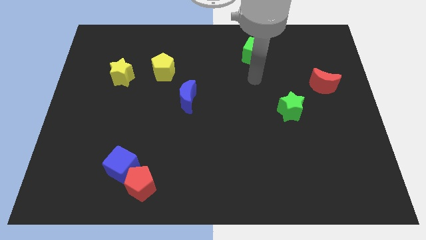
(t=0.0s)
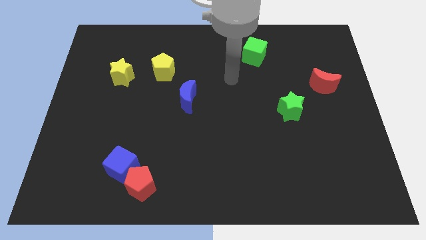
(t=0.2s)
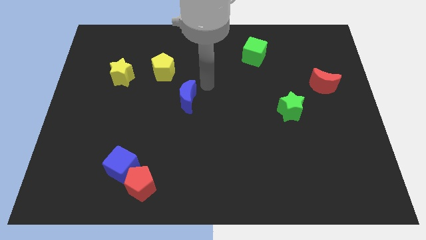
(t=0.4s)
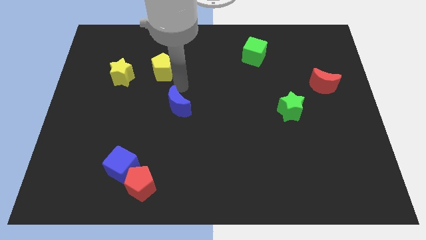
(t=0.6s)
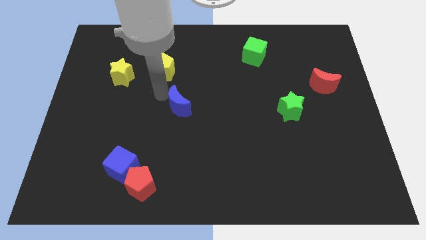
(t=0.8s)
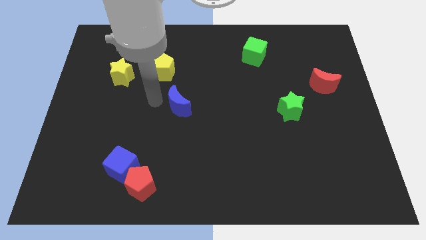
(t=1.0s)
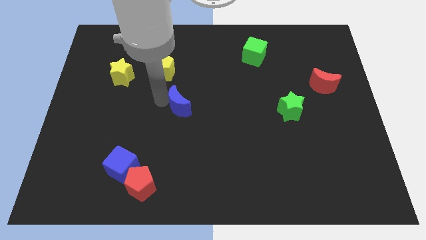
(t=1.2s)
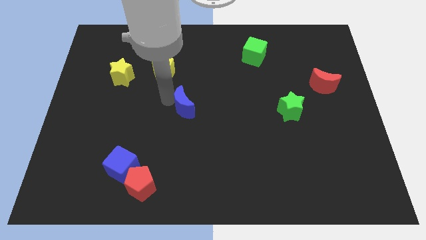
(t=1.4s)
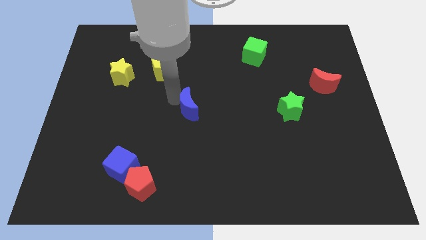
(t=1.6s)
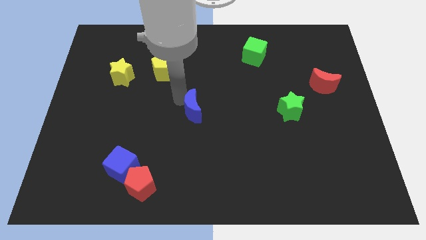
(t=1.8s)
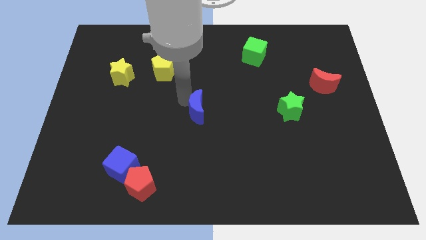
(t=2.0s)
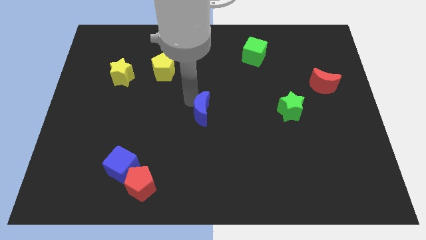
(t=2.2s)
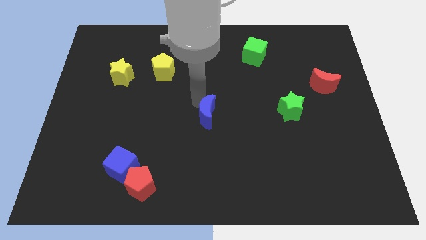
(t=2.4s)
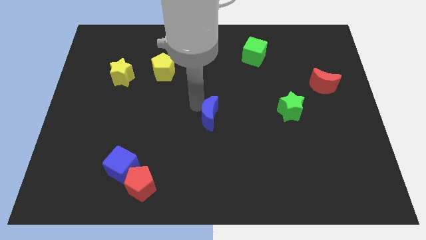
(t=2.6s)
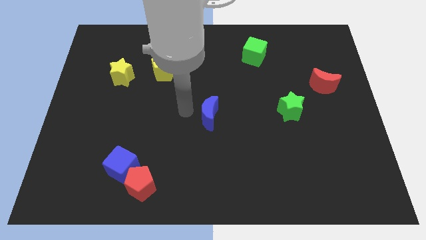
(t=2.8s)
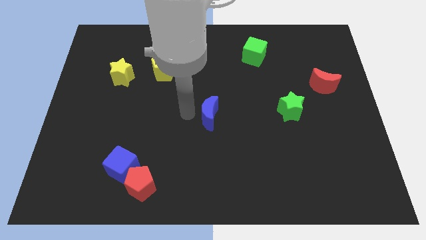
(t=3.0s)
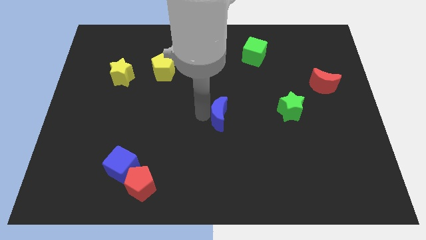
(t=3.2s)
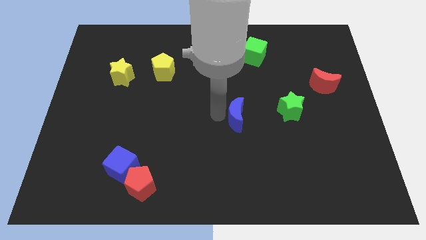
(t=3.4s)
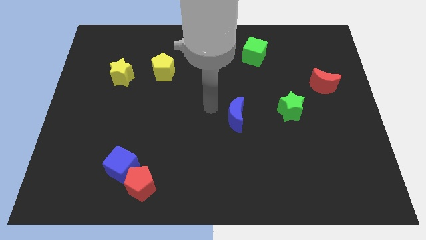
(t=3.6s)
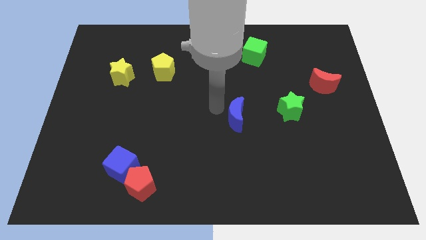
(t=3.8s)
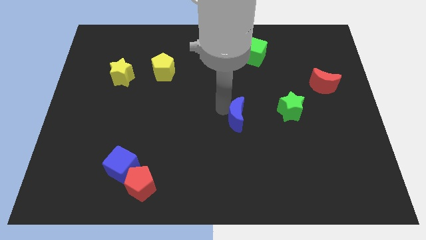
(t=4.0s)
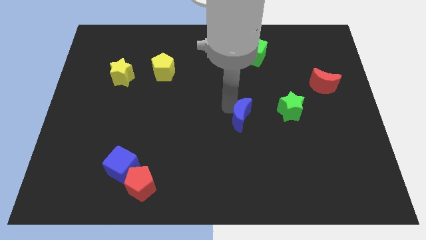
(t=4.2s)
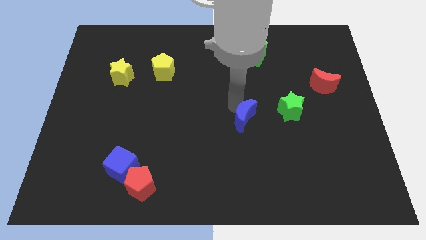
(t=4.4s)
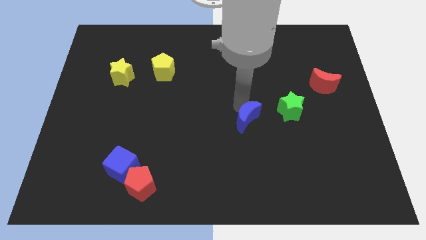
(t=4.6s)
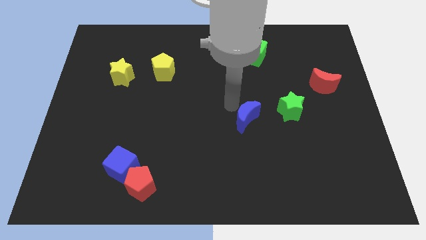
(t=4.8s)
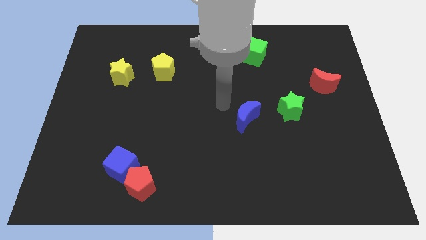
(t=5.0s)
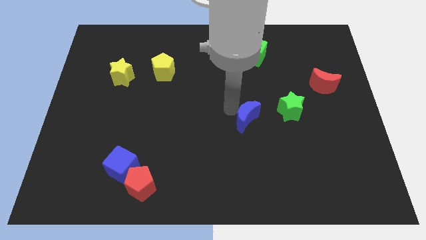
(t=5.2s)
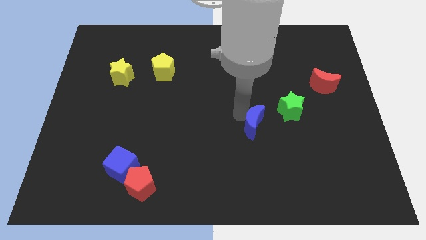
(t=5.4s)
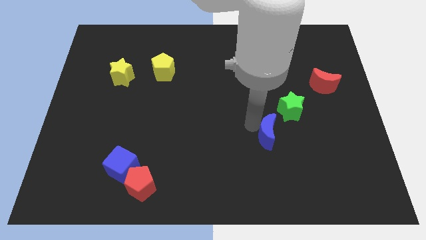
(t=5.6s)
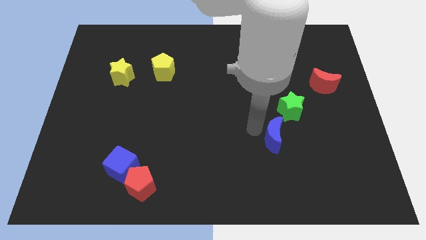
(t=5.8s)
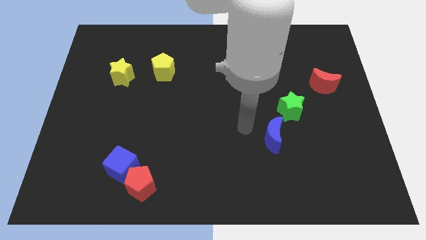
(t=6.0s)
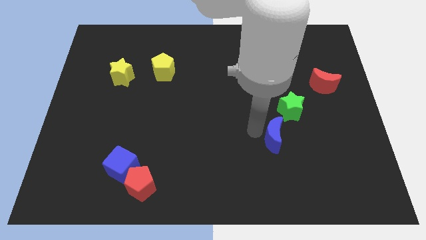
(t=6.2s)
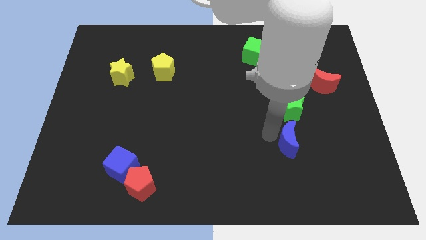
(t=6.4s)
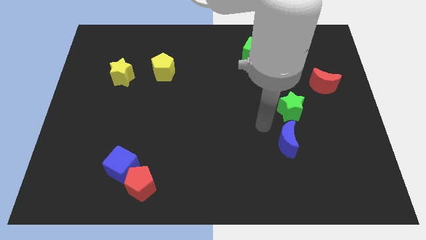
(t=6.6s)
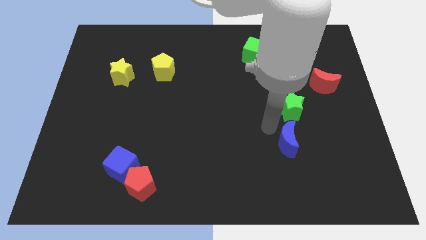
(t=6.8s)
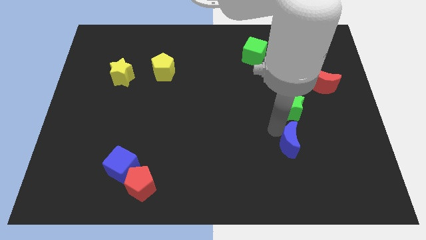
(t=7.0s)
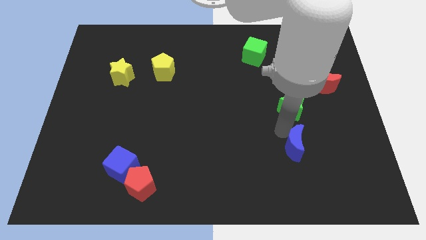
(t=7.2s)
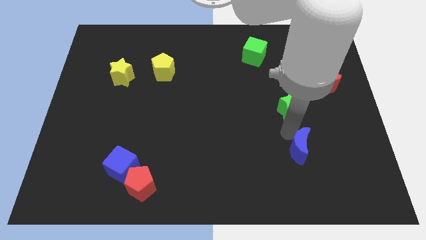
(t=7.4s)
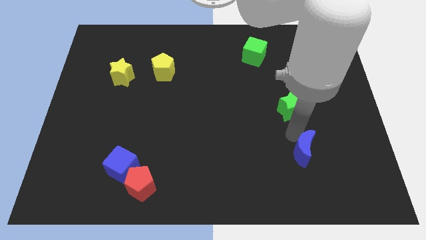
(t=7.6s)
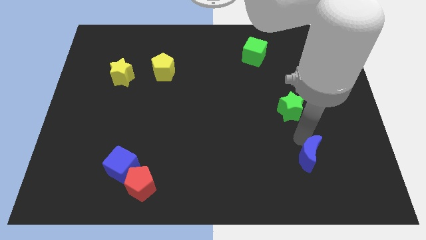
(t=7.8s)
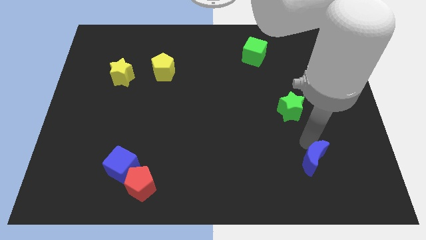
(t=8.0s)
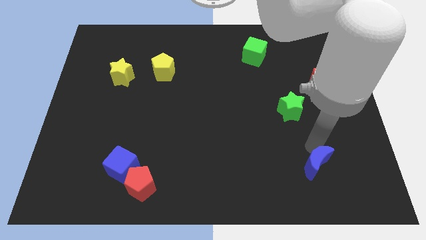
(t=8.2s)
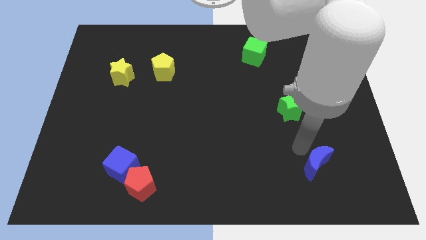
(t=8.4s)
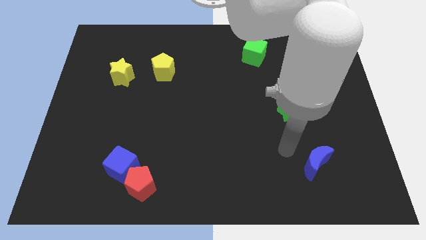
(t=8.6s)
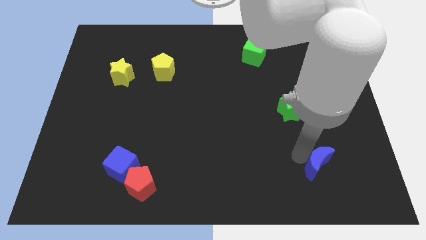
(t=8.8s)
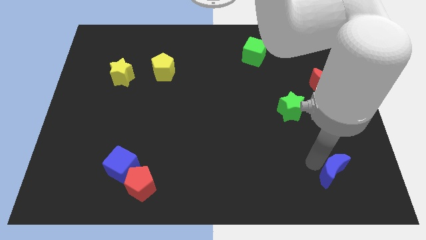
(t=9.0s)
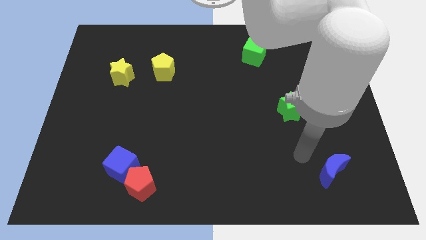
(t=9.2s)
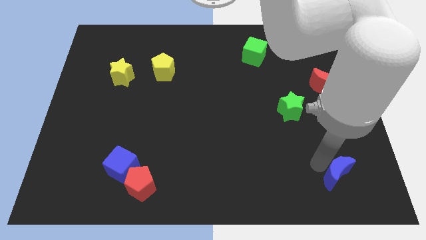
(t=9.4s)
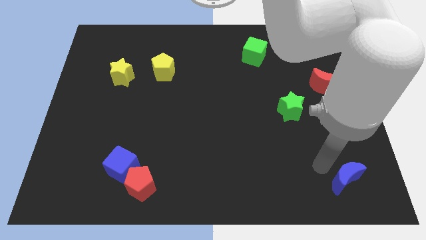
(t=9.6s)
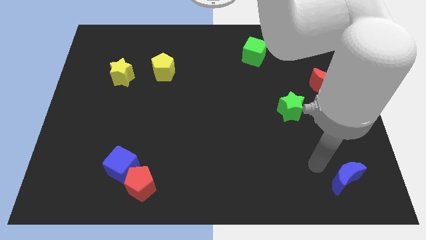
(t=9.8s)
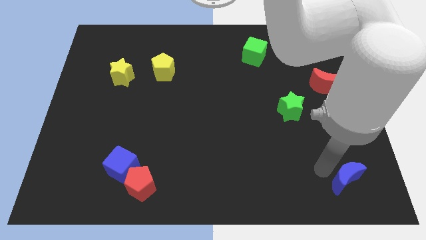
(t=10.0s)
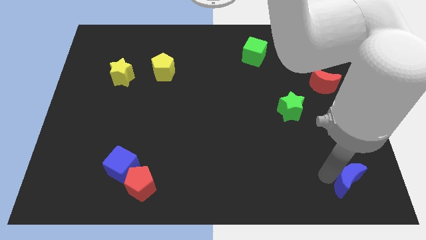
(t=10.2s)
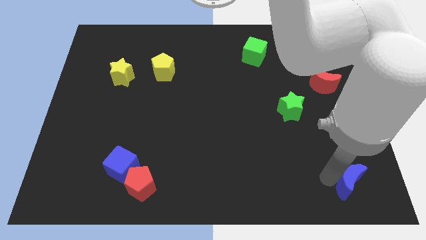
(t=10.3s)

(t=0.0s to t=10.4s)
push the blue moon to the bottom right corner

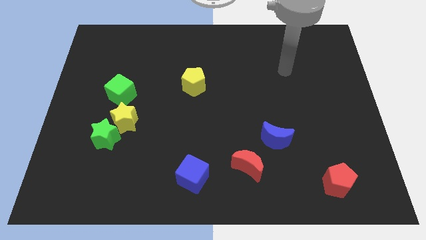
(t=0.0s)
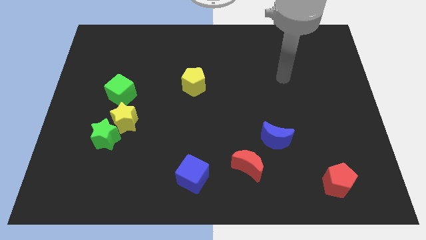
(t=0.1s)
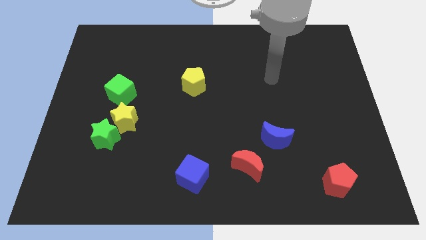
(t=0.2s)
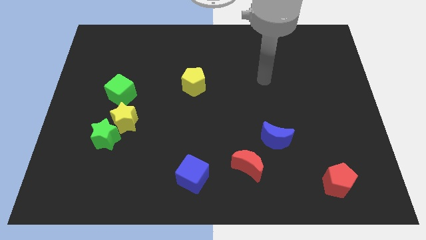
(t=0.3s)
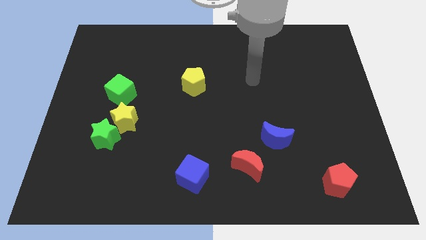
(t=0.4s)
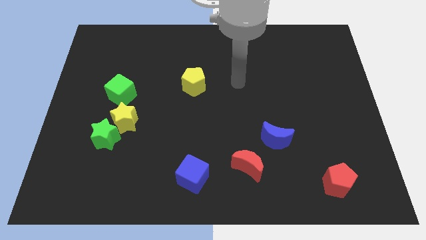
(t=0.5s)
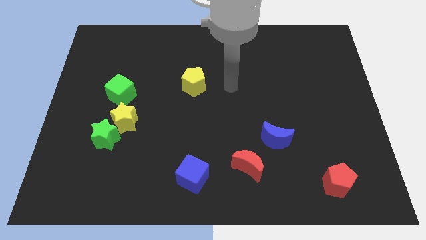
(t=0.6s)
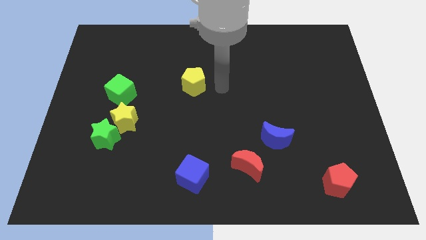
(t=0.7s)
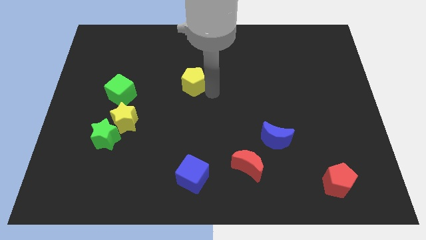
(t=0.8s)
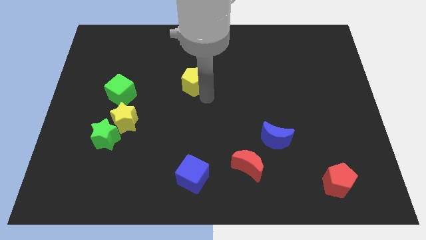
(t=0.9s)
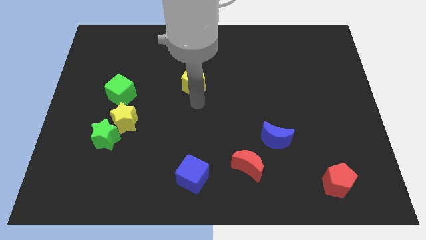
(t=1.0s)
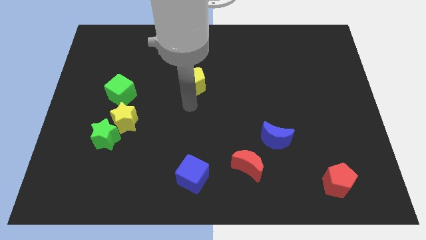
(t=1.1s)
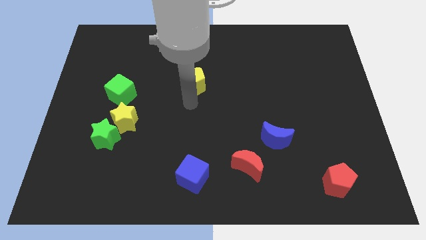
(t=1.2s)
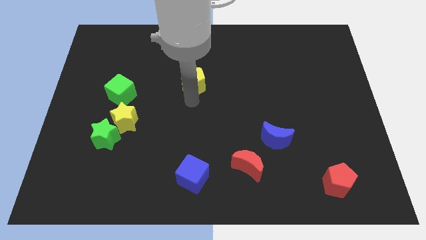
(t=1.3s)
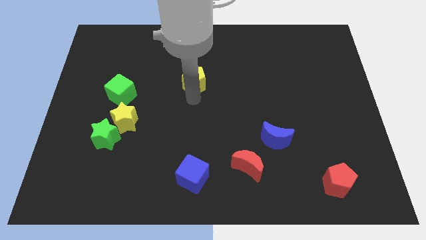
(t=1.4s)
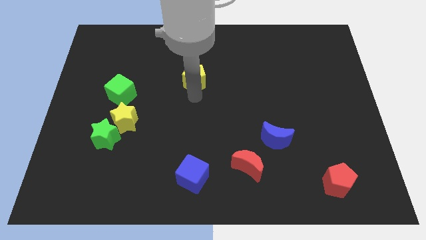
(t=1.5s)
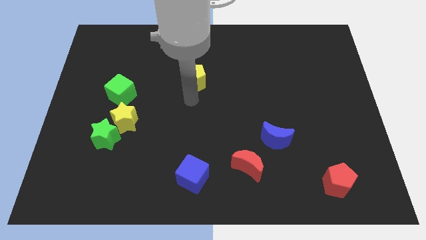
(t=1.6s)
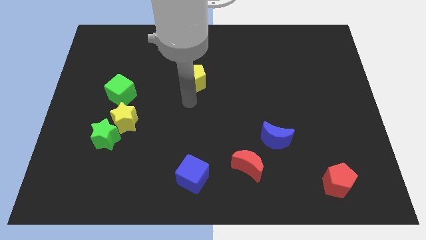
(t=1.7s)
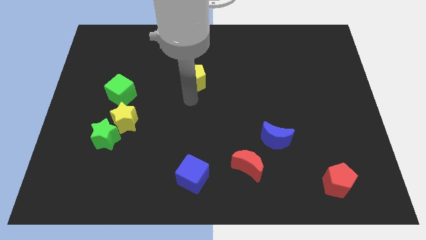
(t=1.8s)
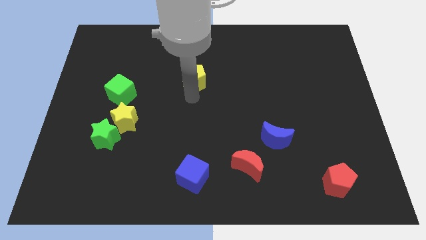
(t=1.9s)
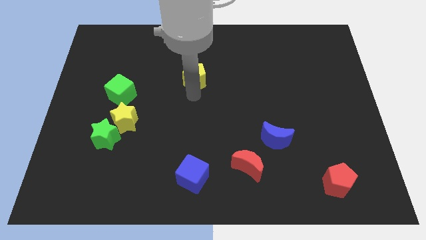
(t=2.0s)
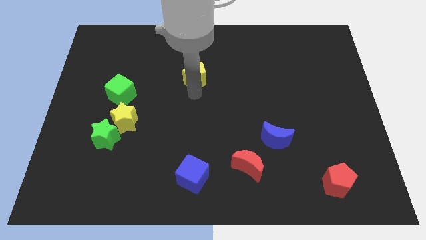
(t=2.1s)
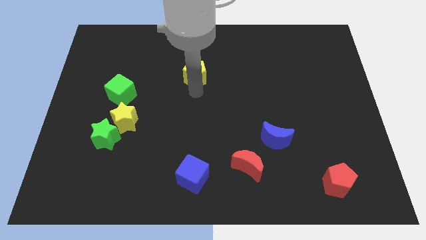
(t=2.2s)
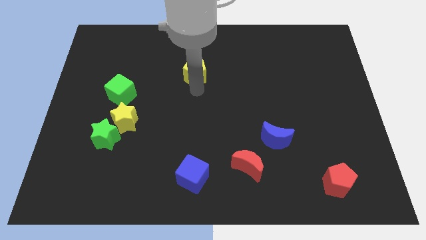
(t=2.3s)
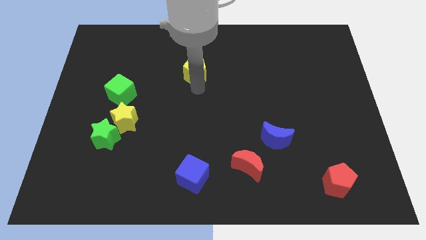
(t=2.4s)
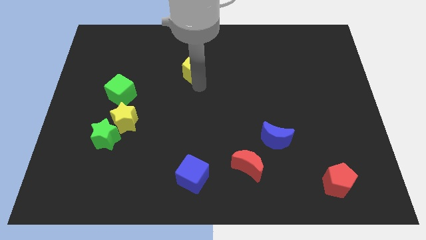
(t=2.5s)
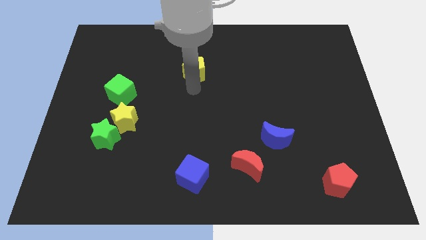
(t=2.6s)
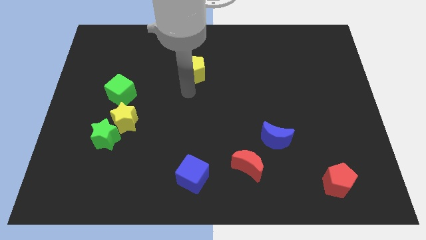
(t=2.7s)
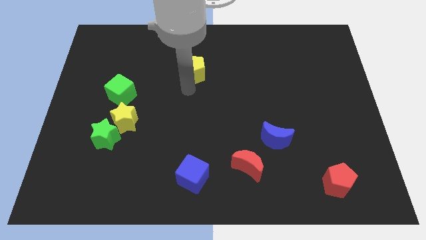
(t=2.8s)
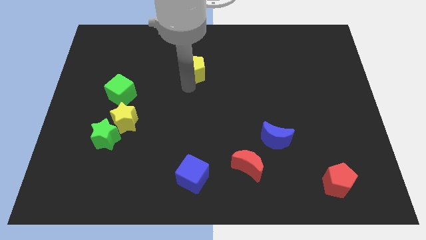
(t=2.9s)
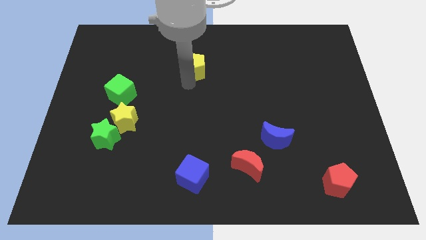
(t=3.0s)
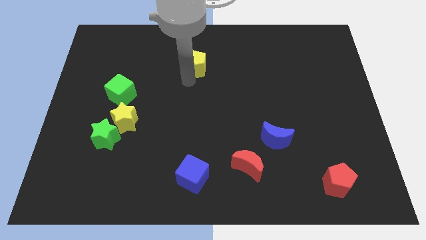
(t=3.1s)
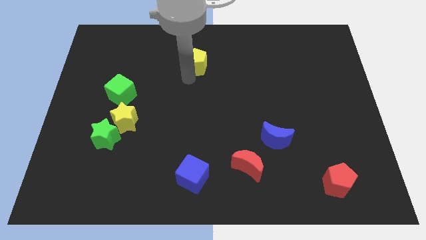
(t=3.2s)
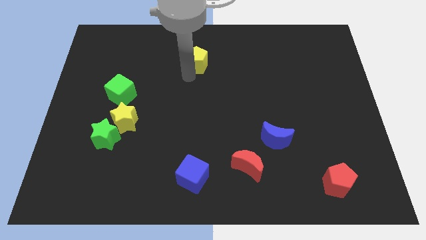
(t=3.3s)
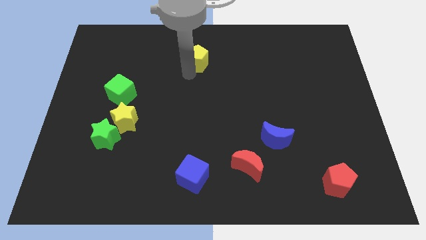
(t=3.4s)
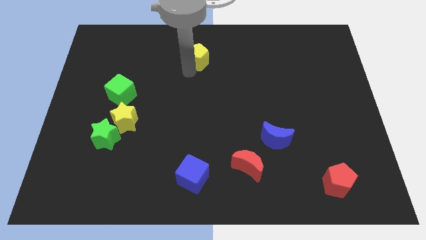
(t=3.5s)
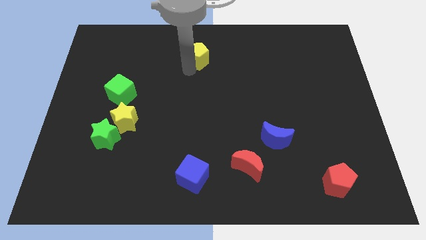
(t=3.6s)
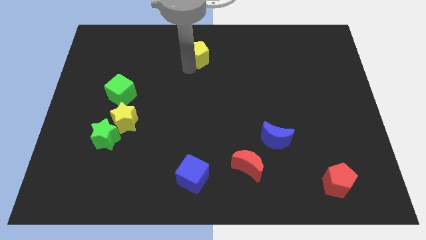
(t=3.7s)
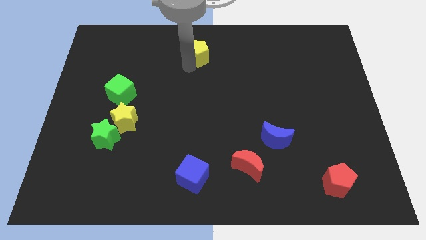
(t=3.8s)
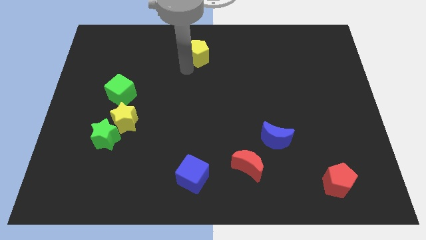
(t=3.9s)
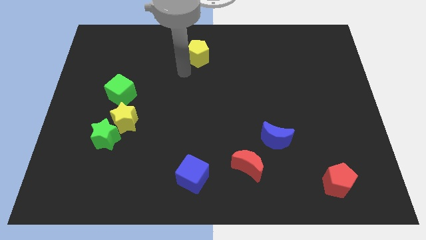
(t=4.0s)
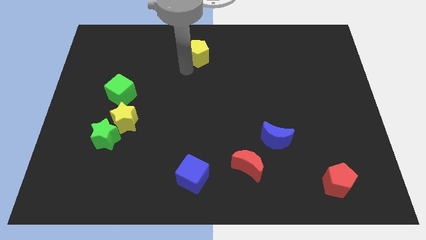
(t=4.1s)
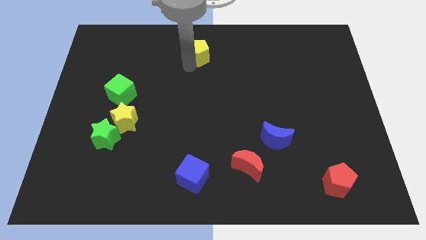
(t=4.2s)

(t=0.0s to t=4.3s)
push the yellow pentagon to the top side
